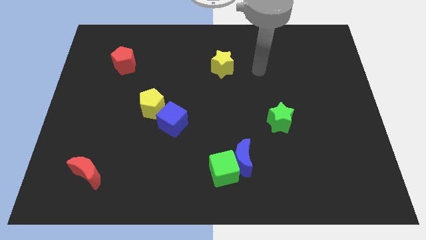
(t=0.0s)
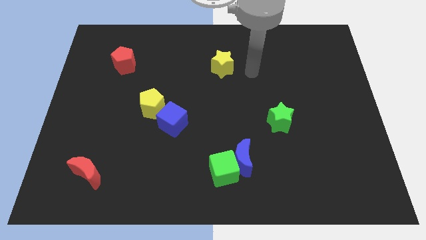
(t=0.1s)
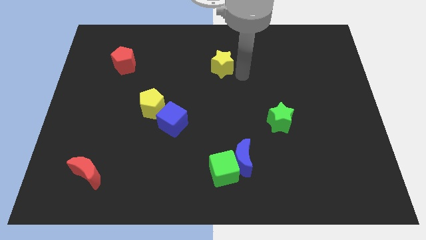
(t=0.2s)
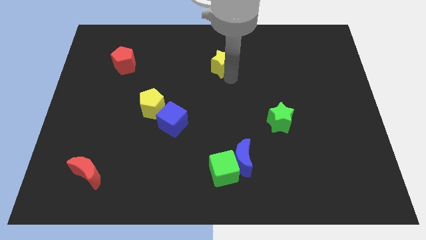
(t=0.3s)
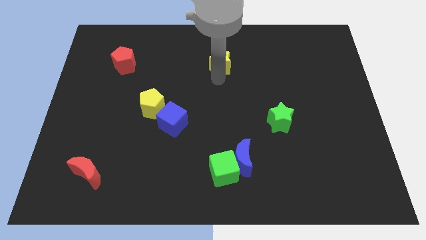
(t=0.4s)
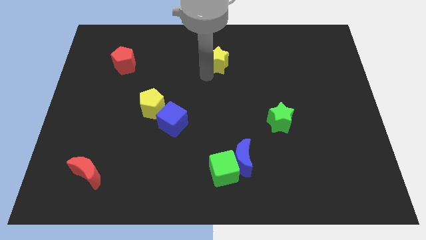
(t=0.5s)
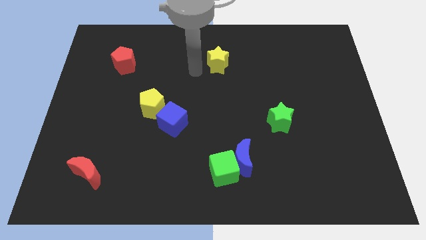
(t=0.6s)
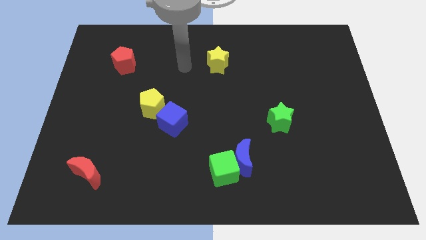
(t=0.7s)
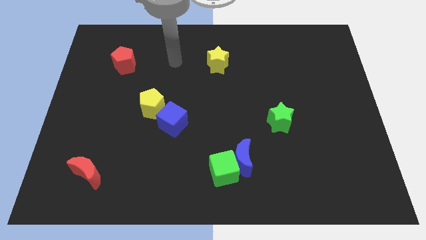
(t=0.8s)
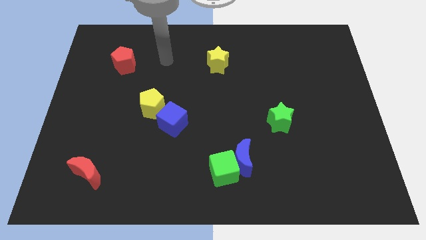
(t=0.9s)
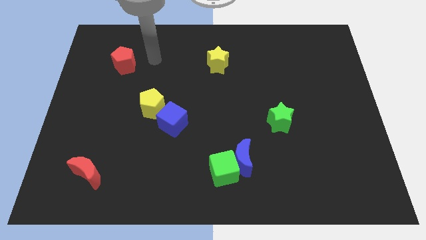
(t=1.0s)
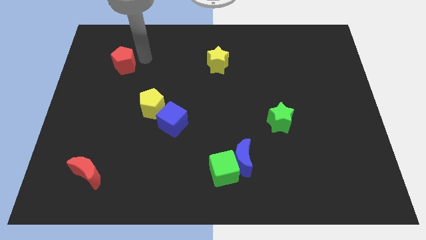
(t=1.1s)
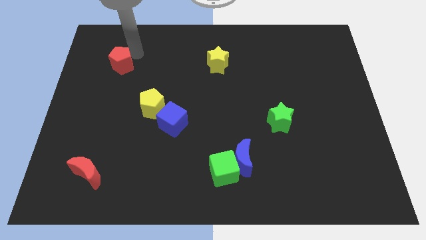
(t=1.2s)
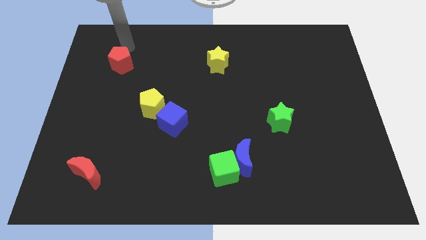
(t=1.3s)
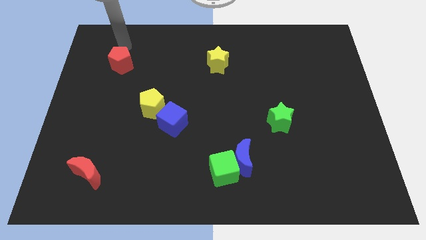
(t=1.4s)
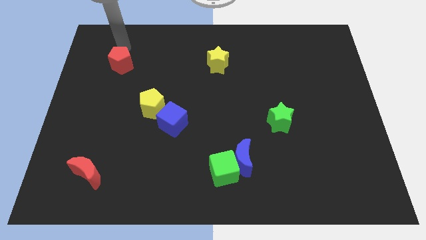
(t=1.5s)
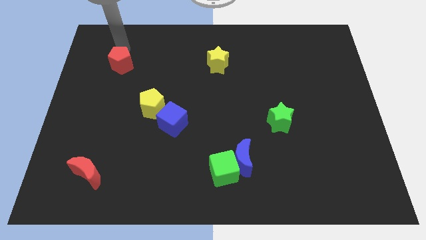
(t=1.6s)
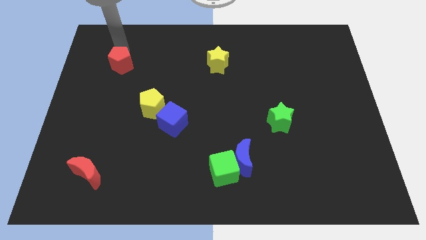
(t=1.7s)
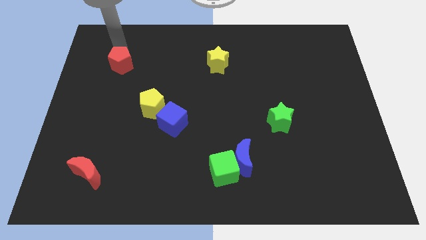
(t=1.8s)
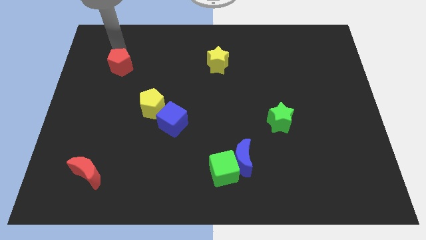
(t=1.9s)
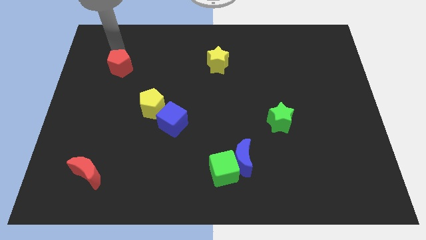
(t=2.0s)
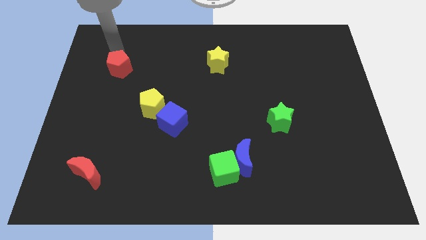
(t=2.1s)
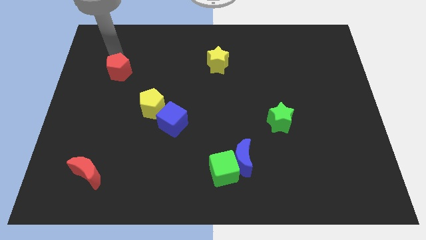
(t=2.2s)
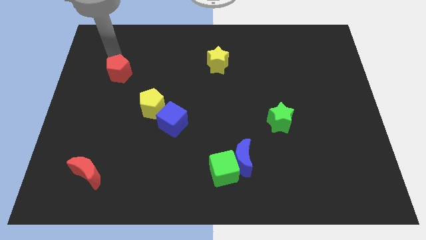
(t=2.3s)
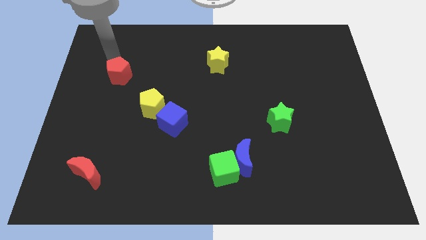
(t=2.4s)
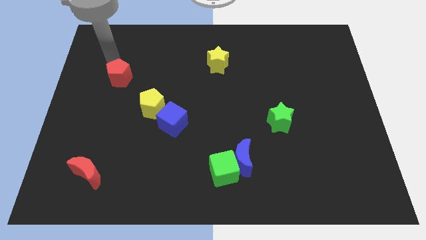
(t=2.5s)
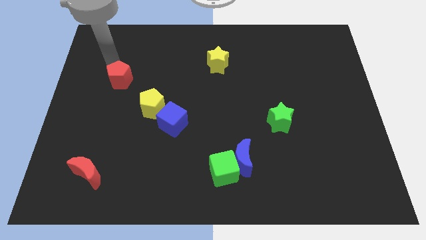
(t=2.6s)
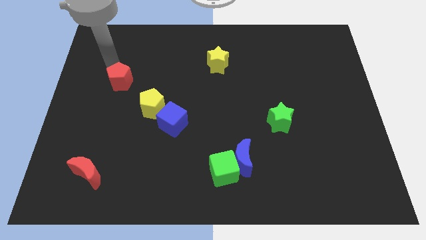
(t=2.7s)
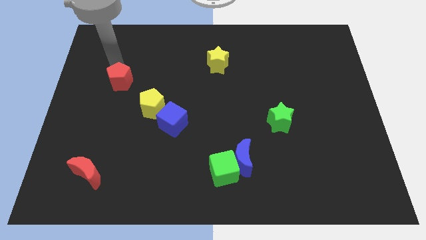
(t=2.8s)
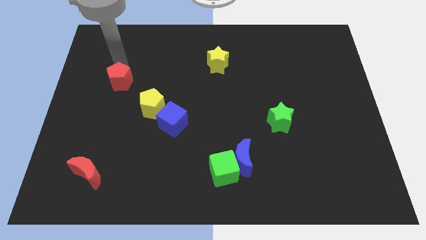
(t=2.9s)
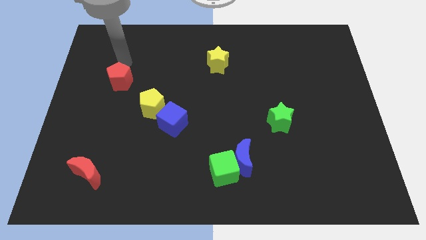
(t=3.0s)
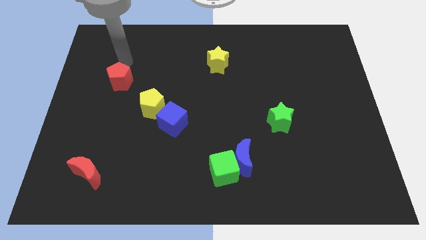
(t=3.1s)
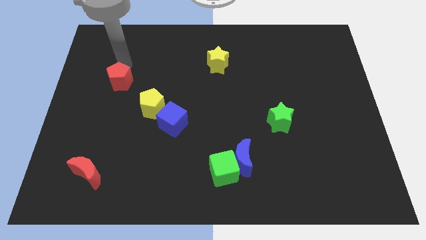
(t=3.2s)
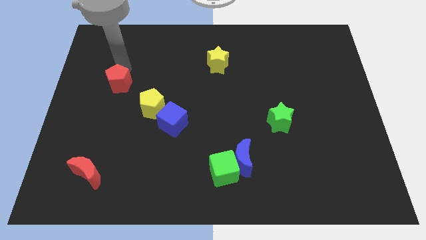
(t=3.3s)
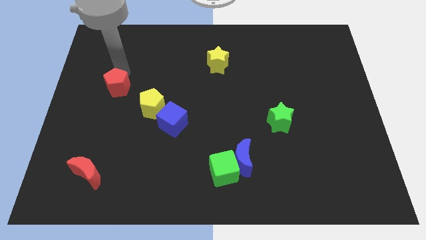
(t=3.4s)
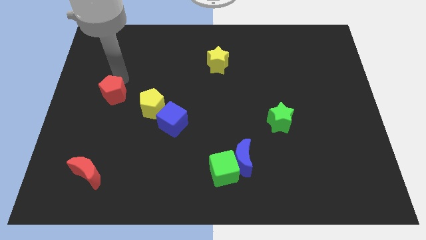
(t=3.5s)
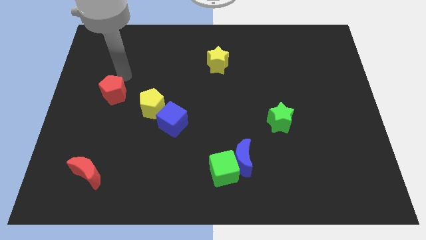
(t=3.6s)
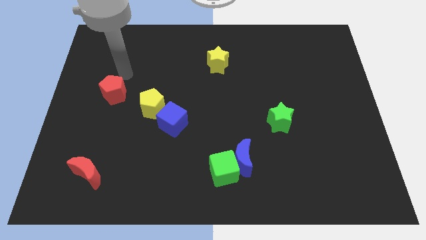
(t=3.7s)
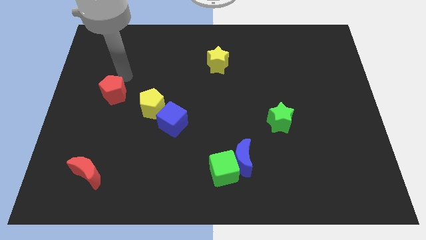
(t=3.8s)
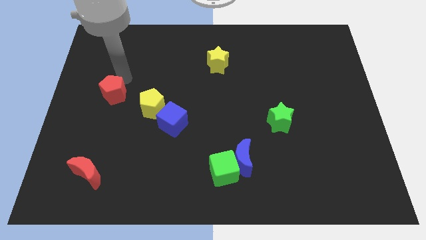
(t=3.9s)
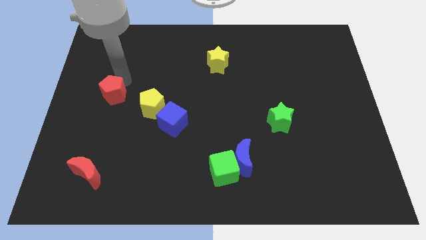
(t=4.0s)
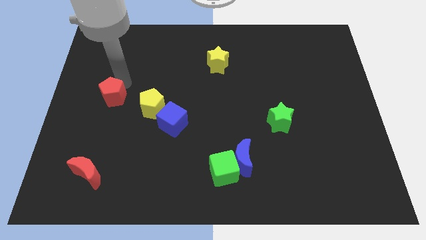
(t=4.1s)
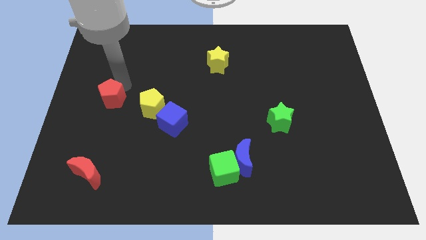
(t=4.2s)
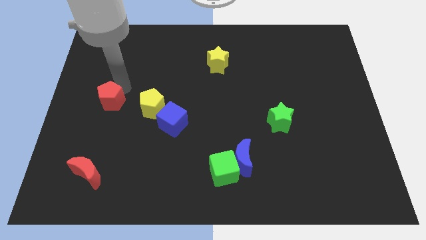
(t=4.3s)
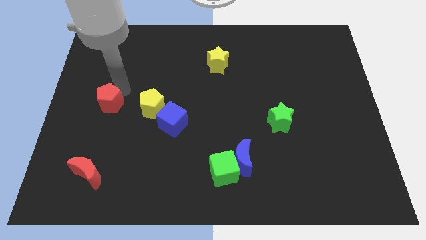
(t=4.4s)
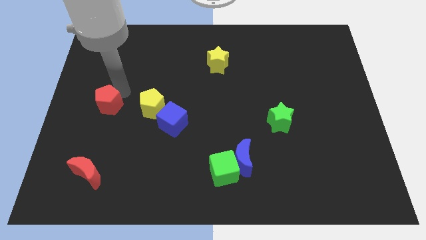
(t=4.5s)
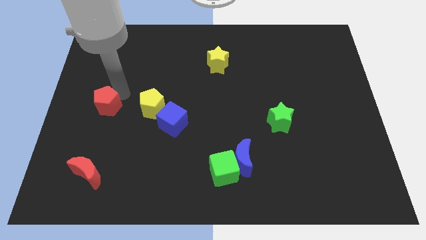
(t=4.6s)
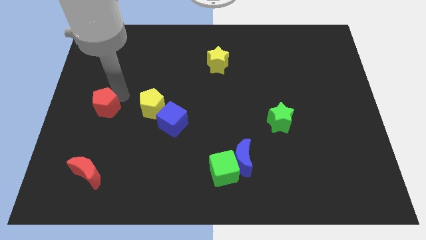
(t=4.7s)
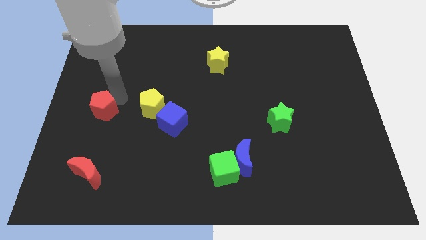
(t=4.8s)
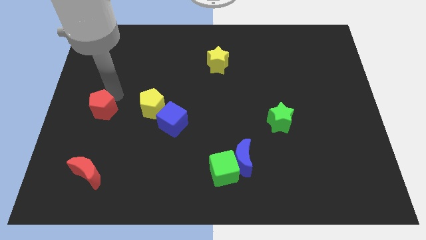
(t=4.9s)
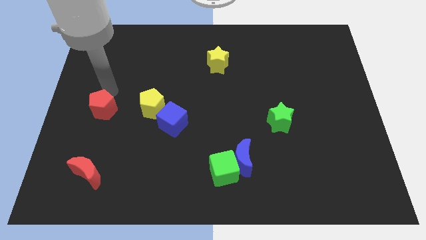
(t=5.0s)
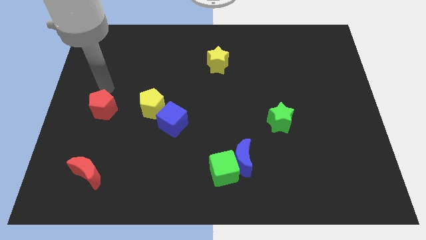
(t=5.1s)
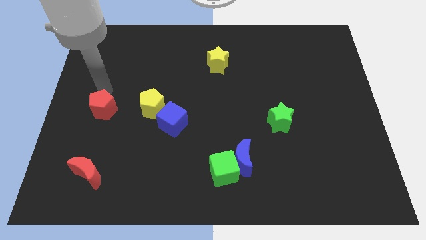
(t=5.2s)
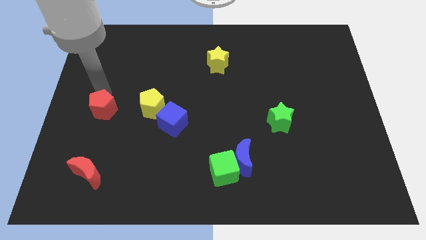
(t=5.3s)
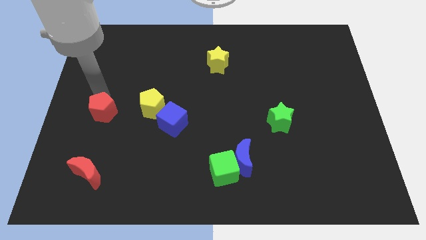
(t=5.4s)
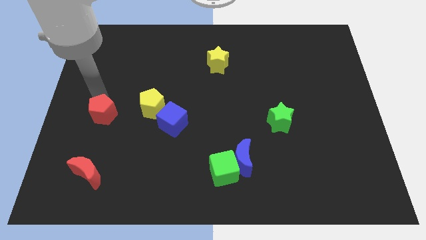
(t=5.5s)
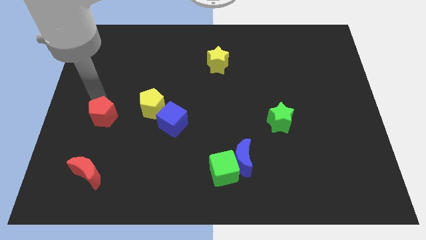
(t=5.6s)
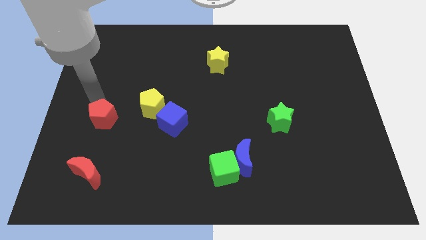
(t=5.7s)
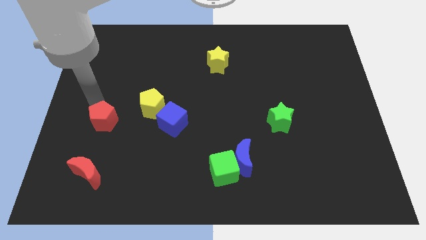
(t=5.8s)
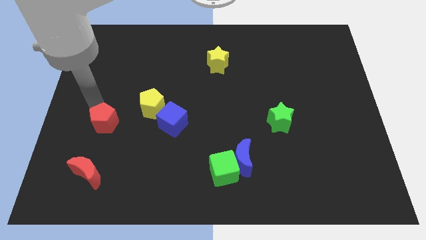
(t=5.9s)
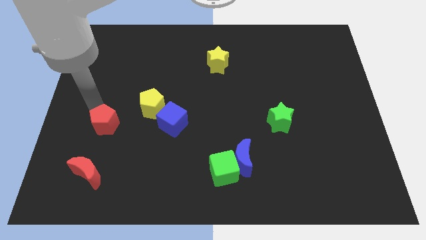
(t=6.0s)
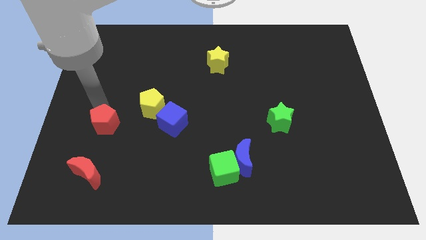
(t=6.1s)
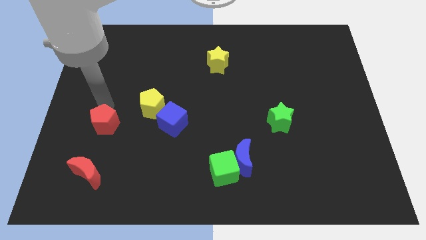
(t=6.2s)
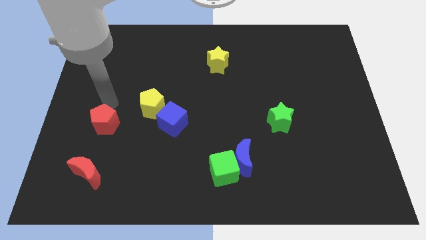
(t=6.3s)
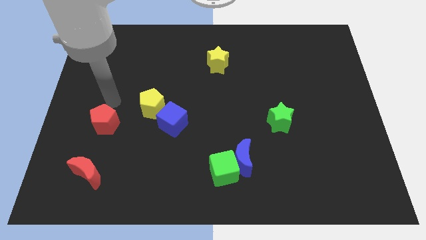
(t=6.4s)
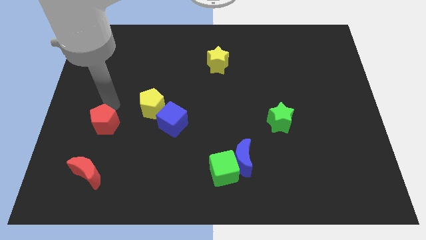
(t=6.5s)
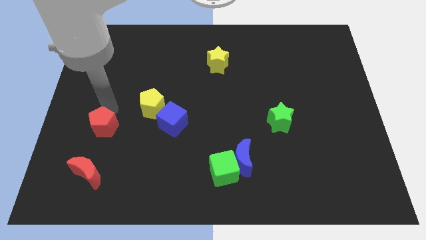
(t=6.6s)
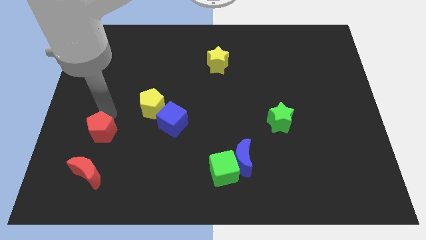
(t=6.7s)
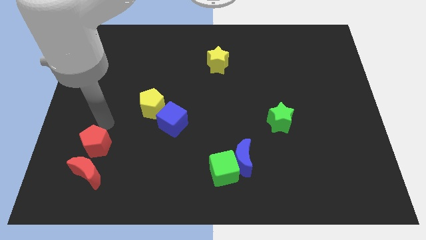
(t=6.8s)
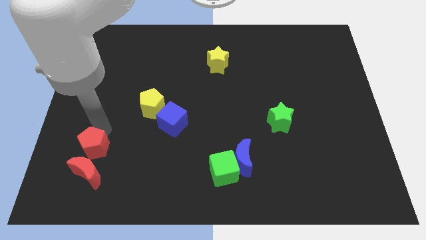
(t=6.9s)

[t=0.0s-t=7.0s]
push the red pentagon towards the red moon
